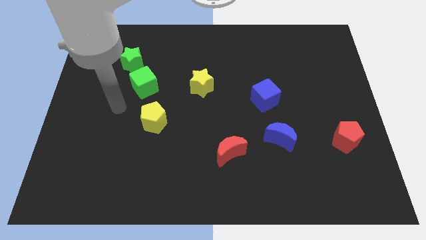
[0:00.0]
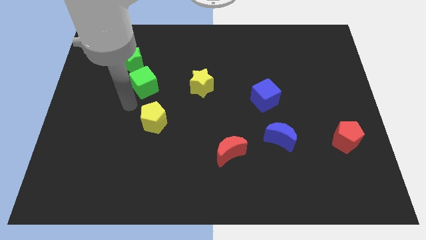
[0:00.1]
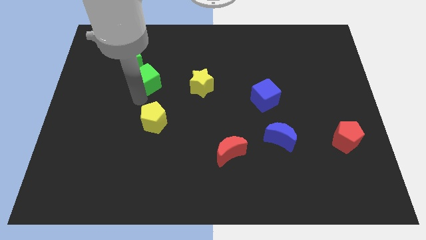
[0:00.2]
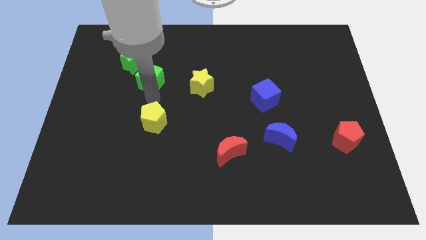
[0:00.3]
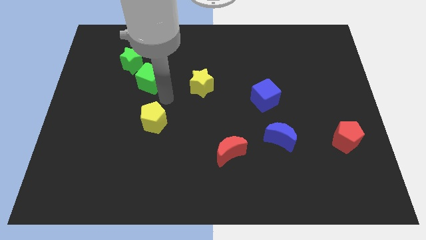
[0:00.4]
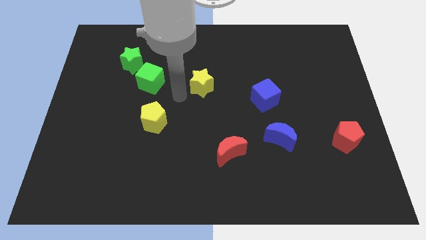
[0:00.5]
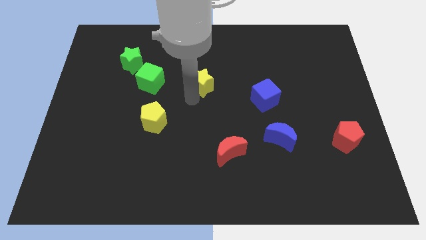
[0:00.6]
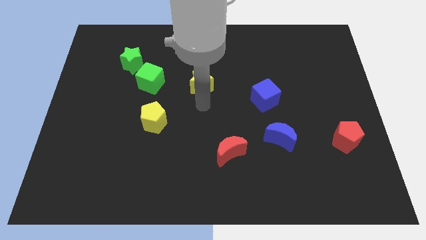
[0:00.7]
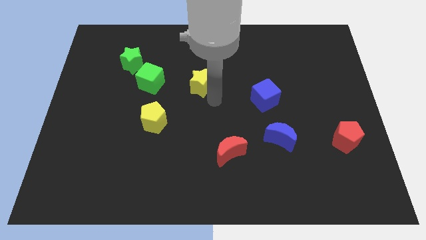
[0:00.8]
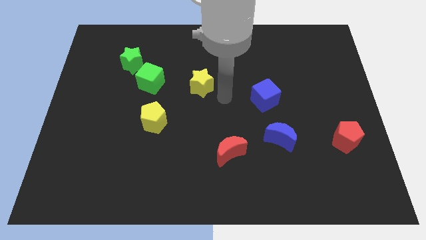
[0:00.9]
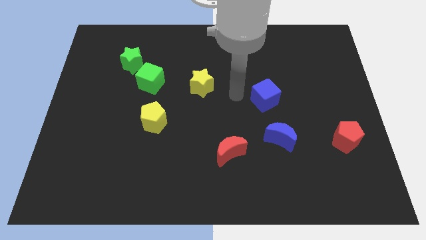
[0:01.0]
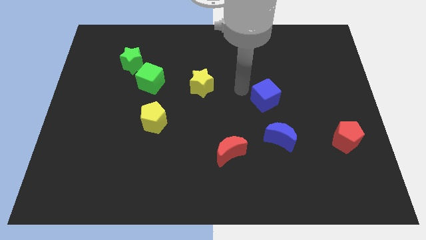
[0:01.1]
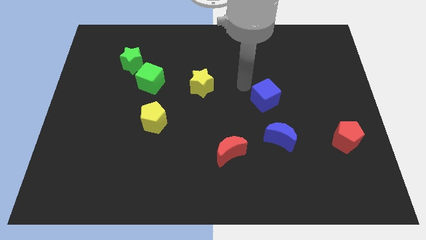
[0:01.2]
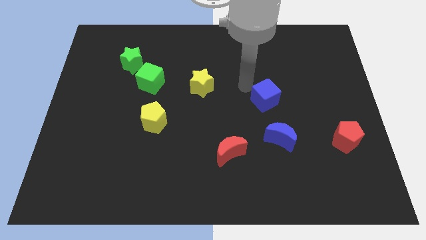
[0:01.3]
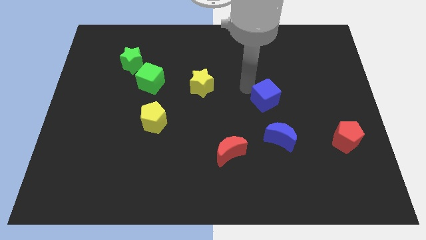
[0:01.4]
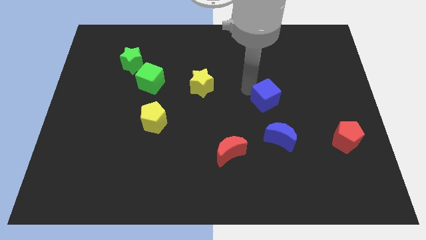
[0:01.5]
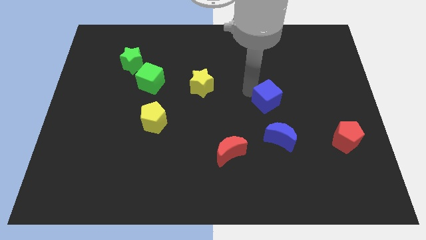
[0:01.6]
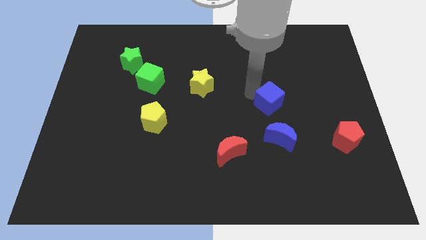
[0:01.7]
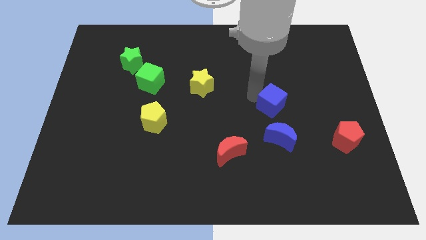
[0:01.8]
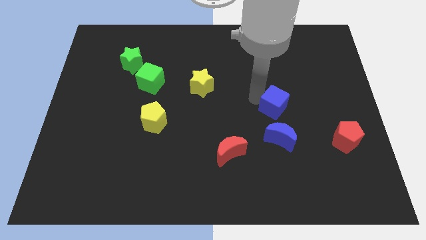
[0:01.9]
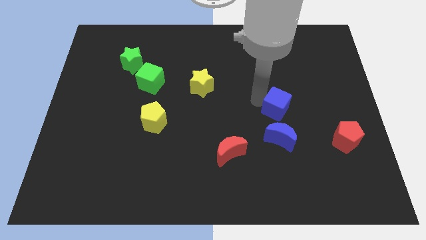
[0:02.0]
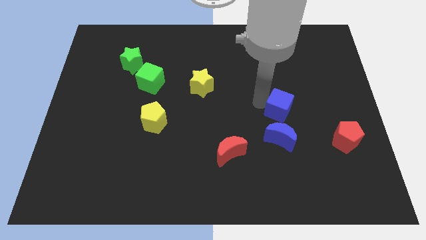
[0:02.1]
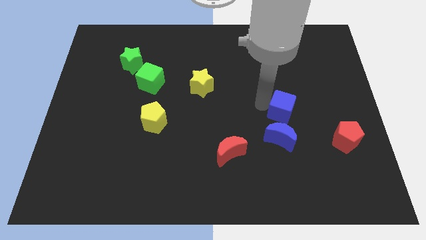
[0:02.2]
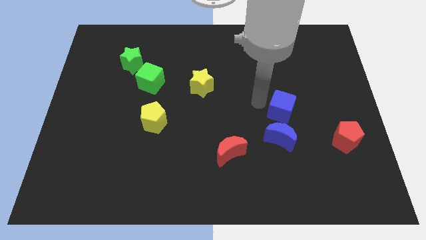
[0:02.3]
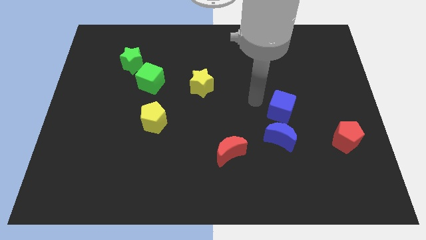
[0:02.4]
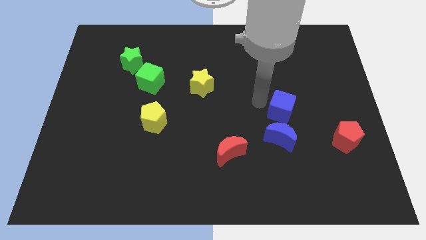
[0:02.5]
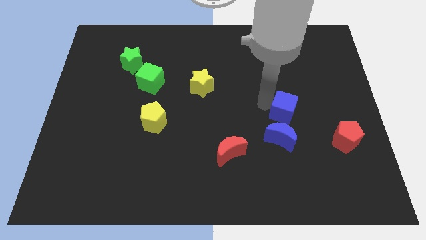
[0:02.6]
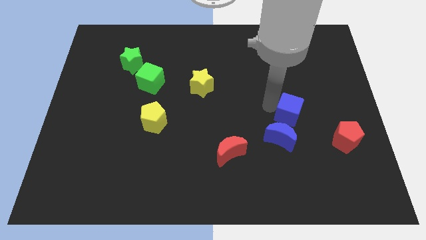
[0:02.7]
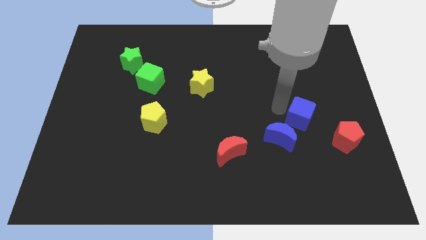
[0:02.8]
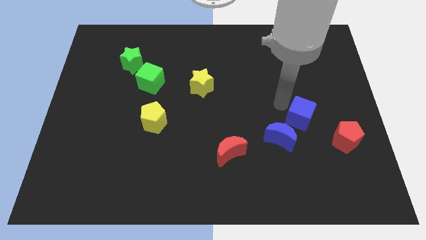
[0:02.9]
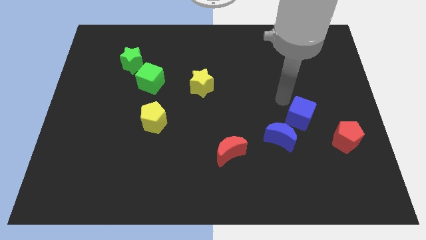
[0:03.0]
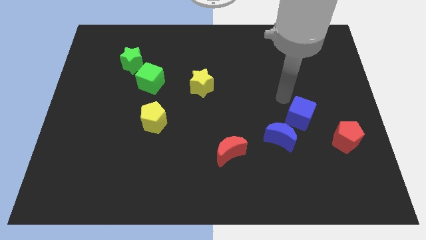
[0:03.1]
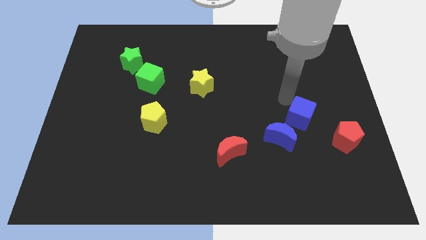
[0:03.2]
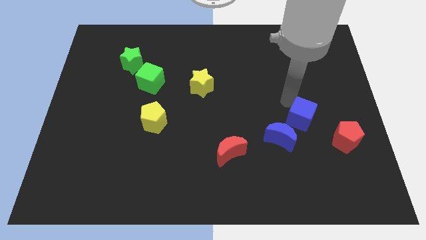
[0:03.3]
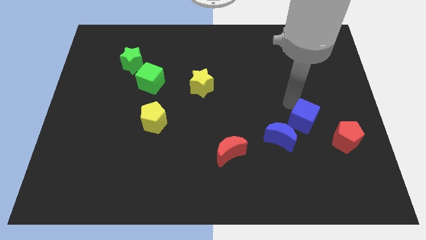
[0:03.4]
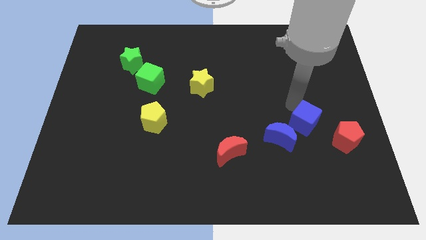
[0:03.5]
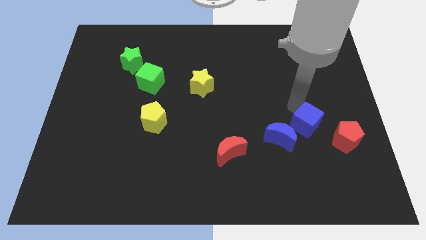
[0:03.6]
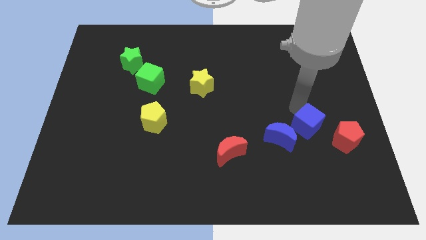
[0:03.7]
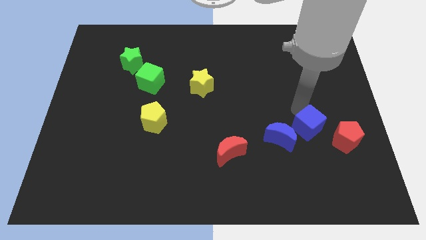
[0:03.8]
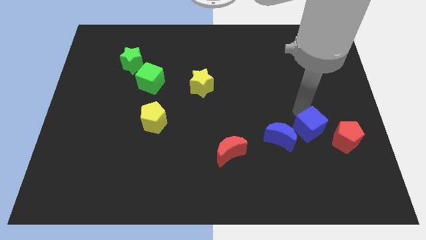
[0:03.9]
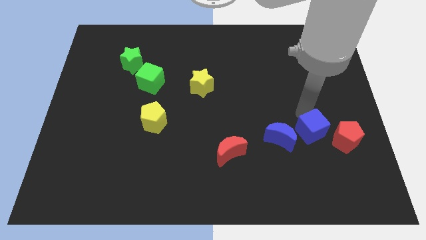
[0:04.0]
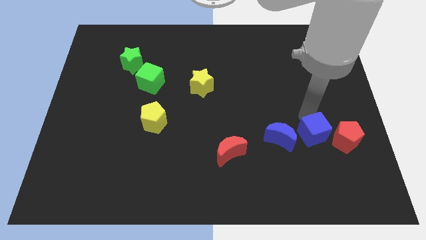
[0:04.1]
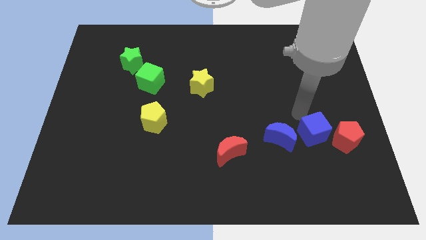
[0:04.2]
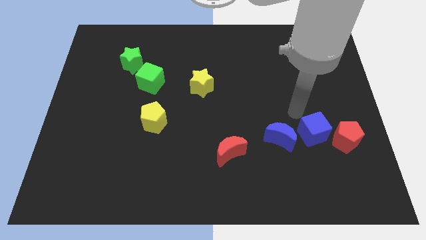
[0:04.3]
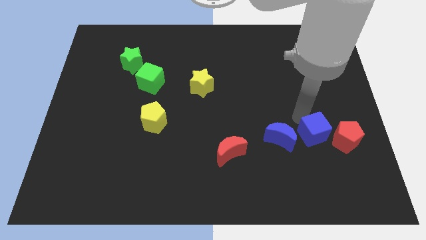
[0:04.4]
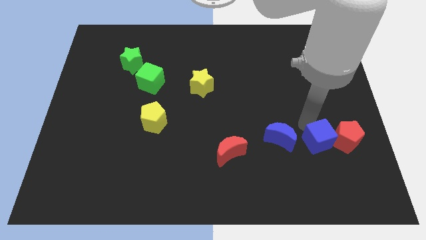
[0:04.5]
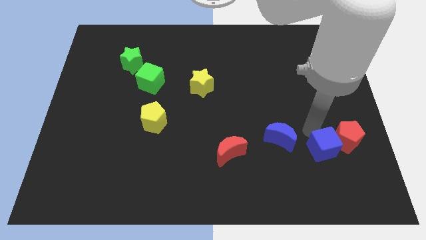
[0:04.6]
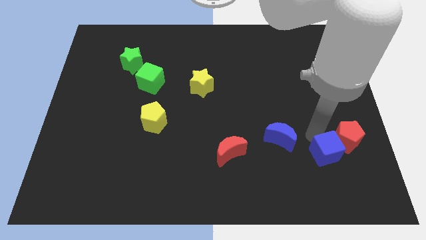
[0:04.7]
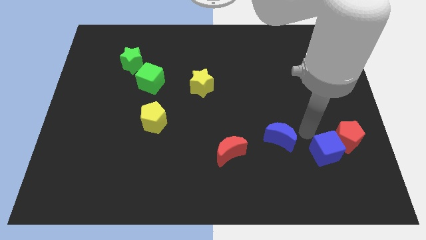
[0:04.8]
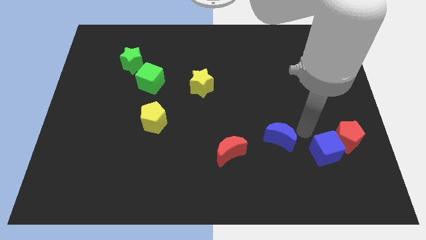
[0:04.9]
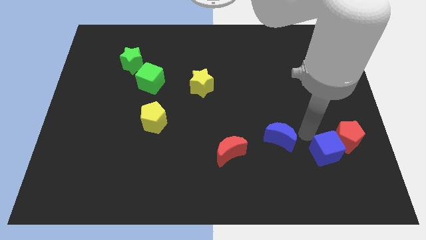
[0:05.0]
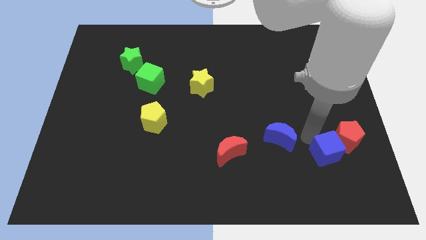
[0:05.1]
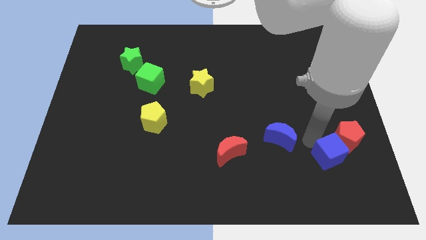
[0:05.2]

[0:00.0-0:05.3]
slide the blue cube below the red pentagon

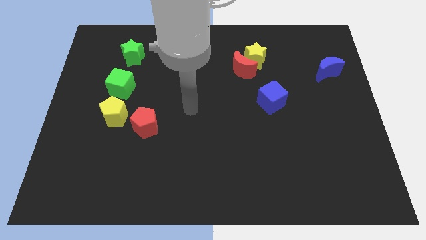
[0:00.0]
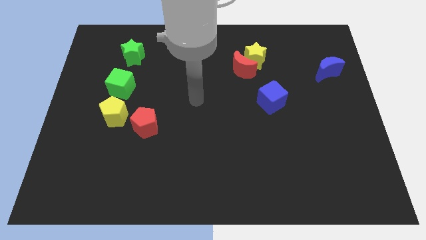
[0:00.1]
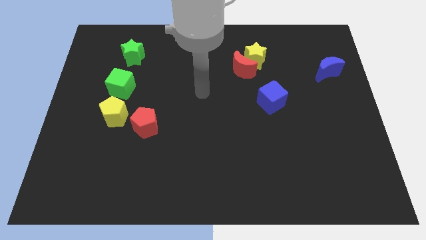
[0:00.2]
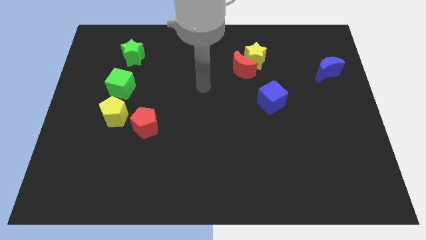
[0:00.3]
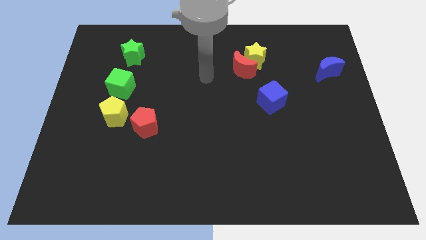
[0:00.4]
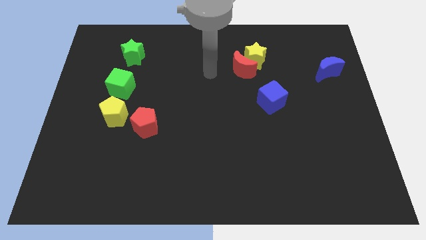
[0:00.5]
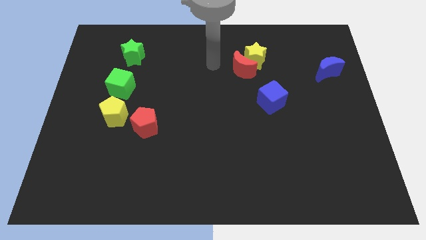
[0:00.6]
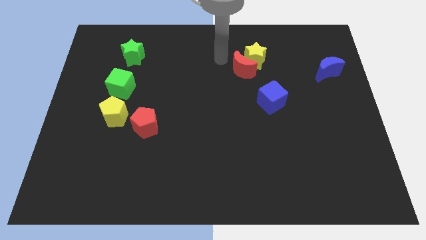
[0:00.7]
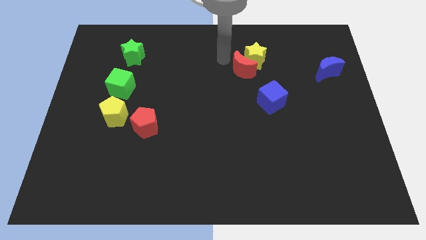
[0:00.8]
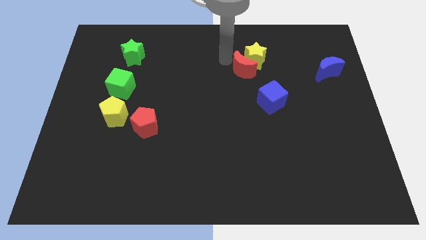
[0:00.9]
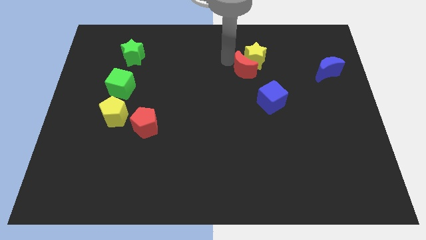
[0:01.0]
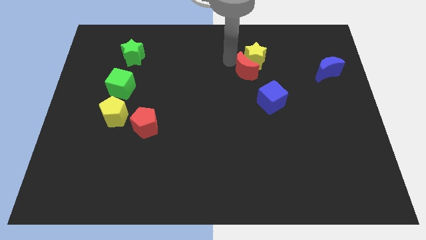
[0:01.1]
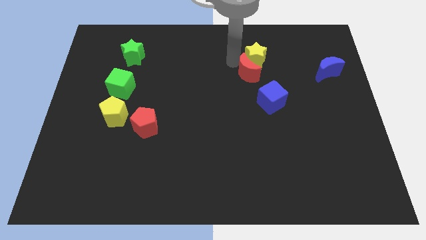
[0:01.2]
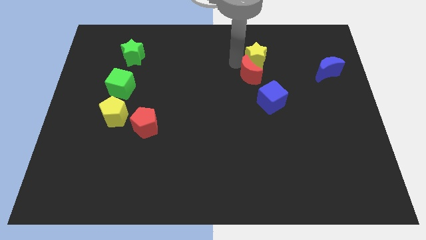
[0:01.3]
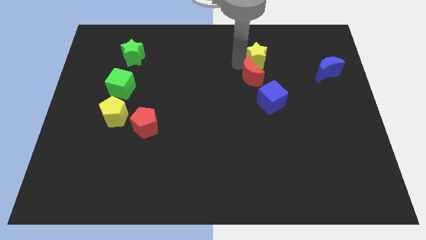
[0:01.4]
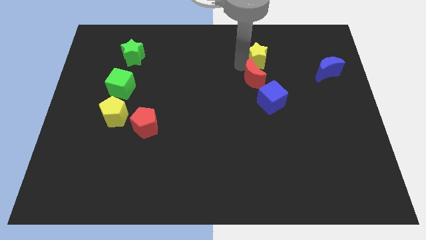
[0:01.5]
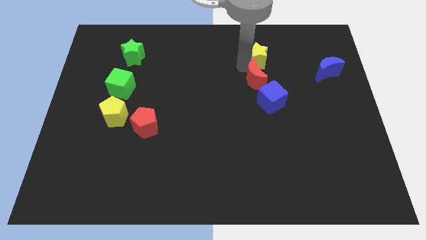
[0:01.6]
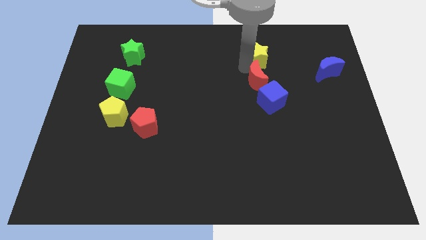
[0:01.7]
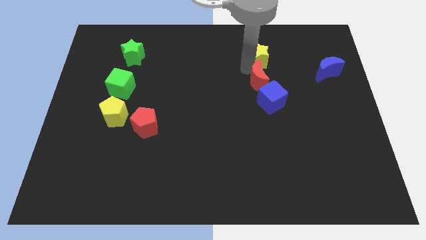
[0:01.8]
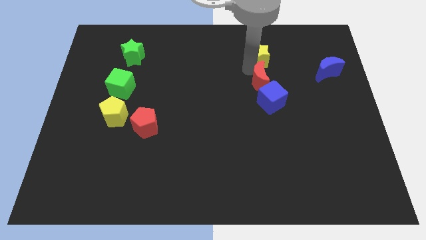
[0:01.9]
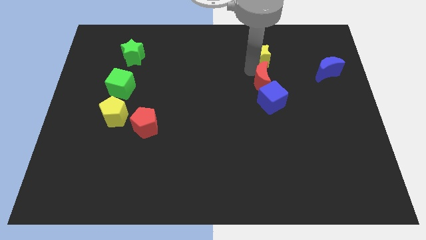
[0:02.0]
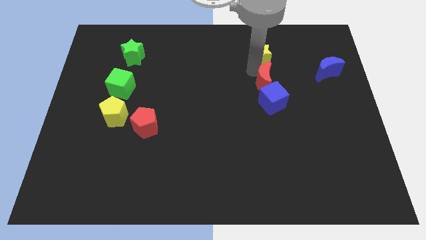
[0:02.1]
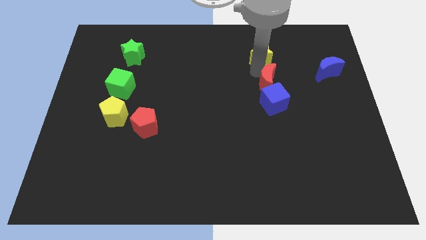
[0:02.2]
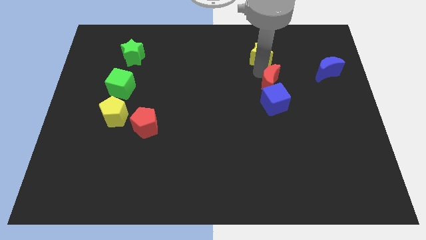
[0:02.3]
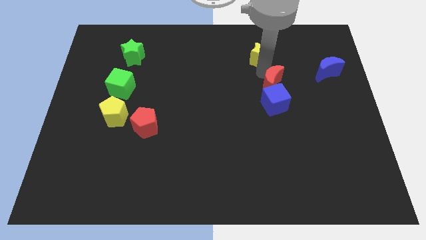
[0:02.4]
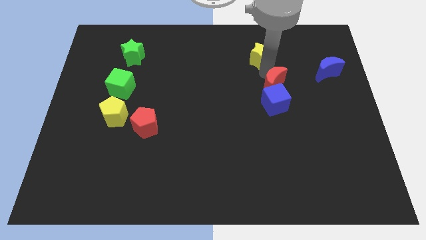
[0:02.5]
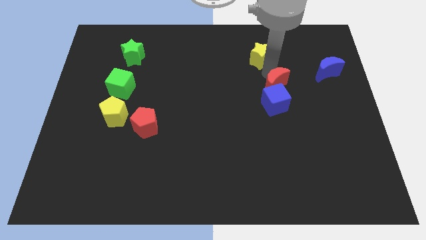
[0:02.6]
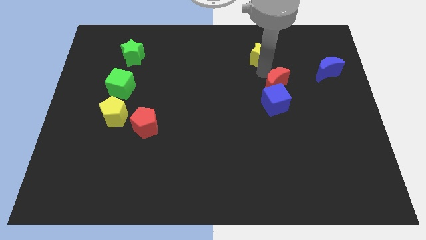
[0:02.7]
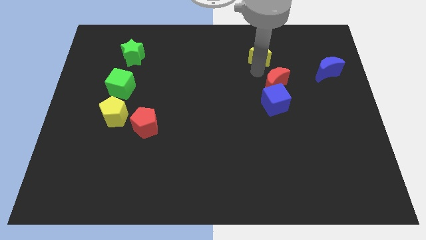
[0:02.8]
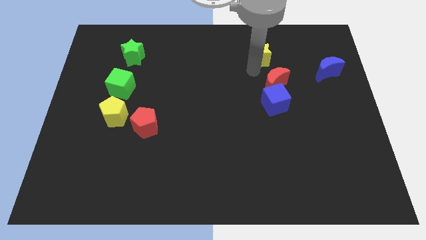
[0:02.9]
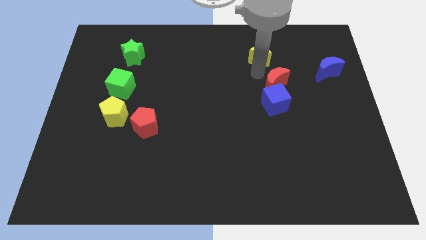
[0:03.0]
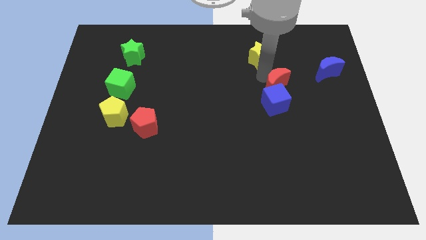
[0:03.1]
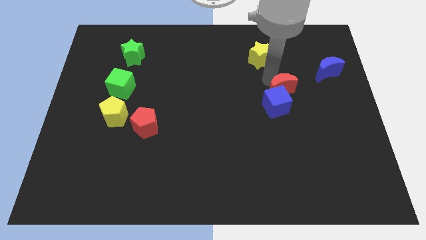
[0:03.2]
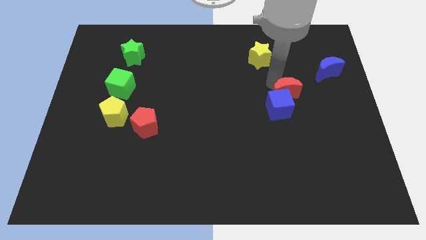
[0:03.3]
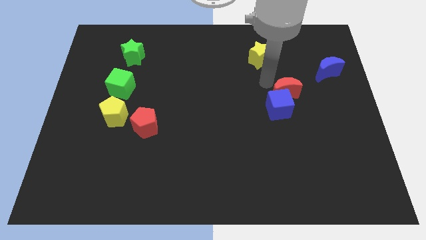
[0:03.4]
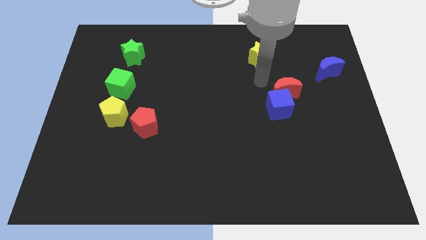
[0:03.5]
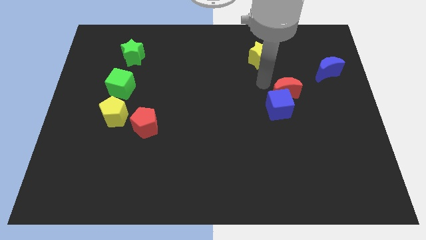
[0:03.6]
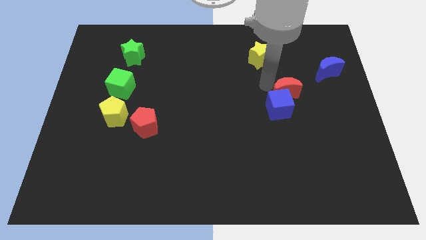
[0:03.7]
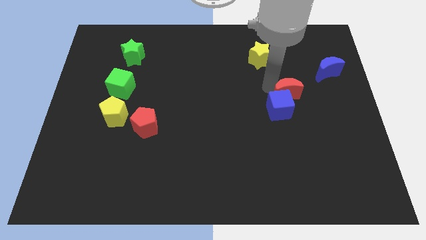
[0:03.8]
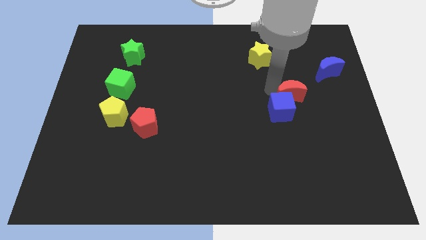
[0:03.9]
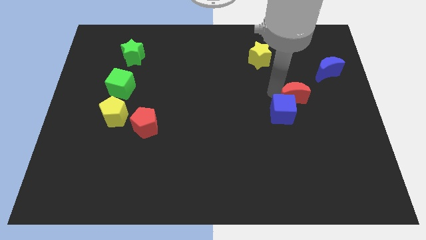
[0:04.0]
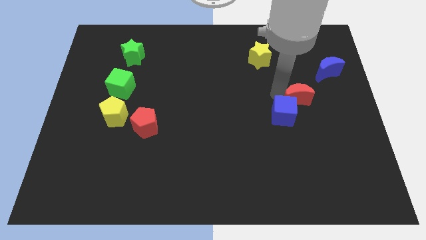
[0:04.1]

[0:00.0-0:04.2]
put the red moon to the right side of the blue cube
